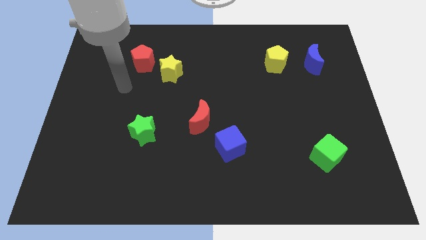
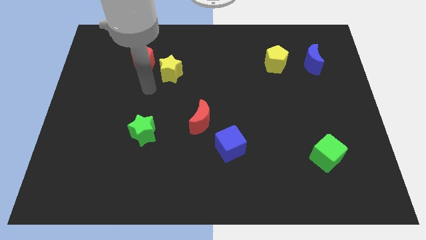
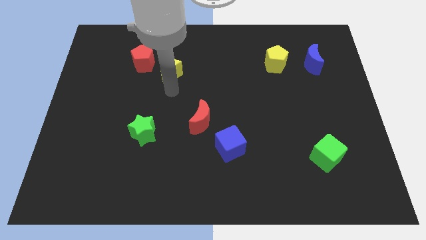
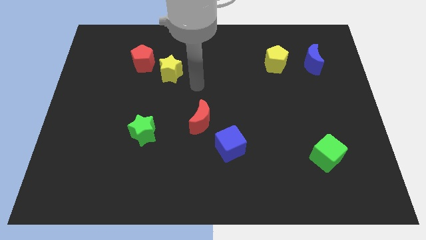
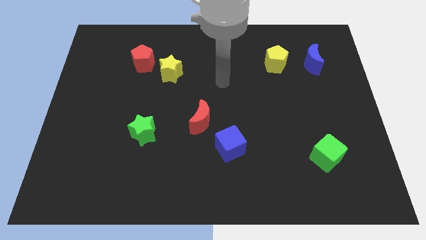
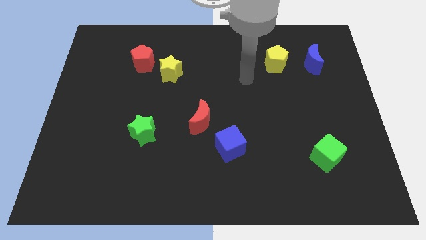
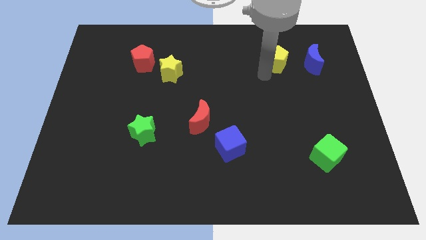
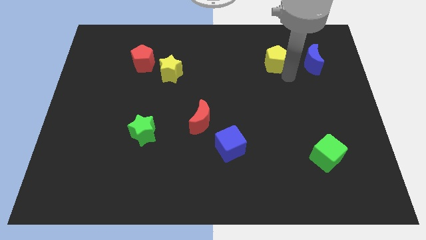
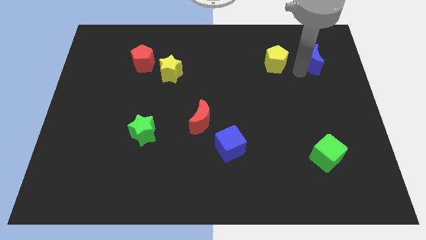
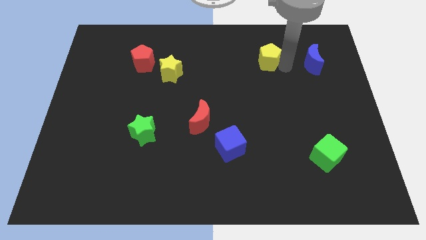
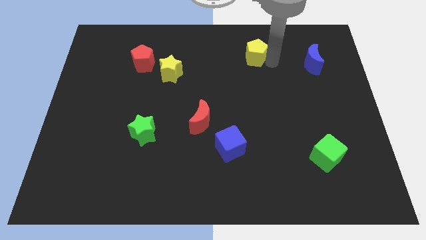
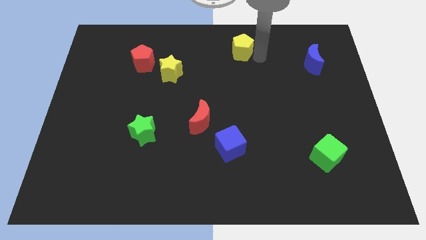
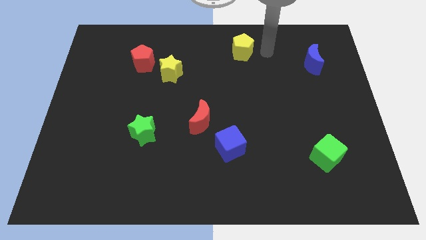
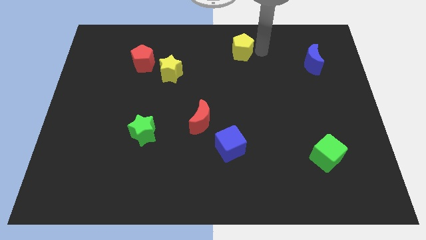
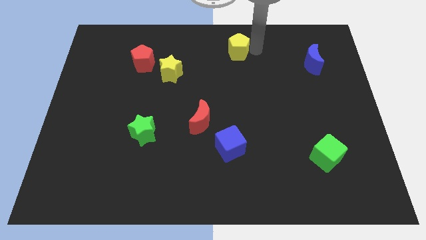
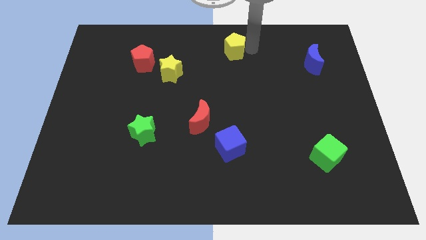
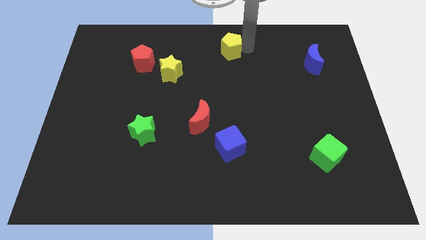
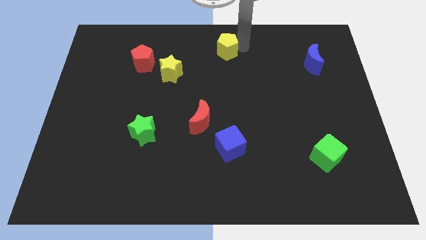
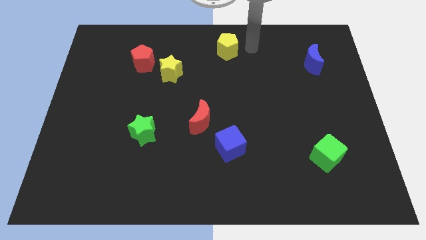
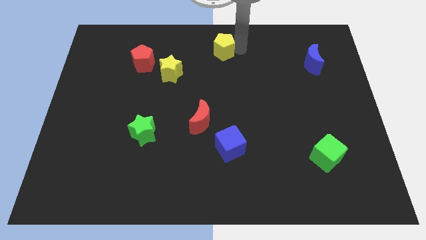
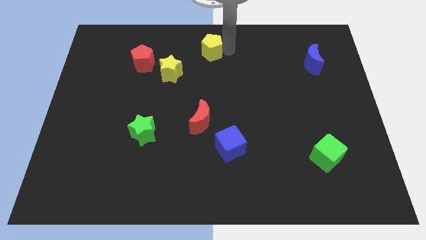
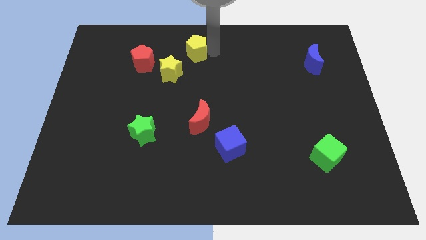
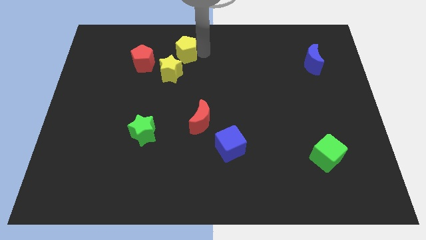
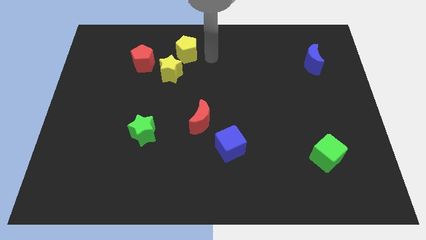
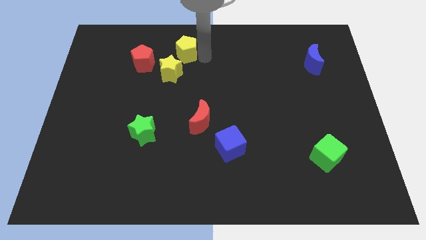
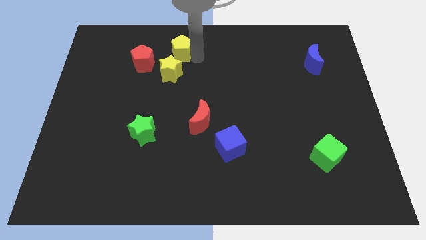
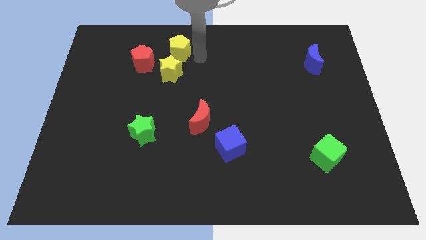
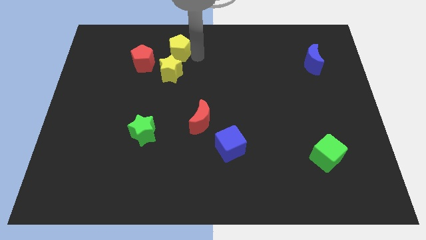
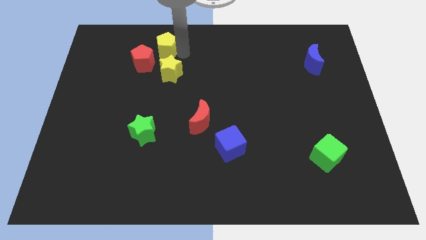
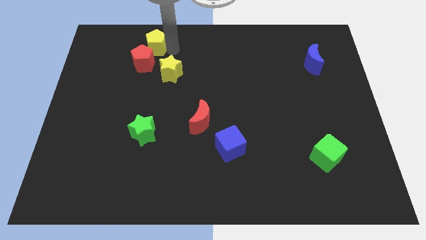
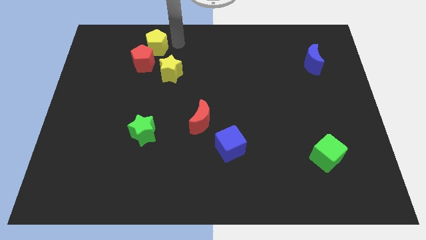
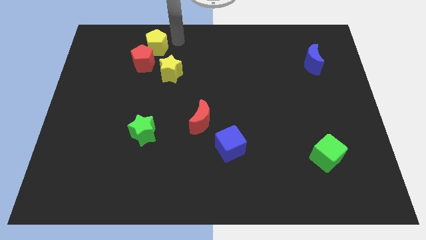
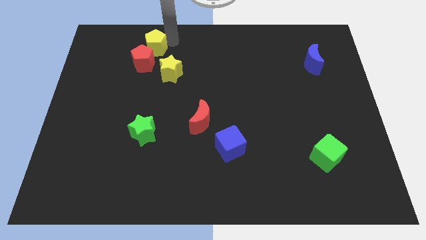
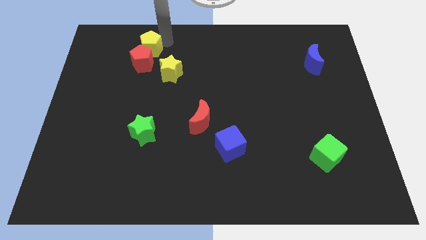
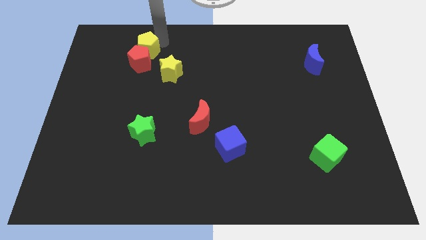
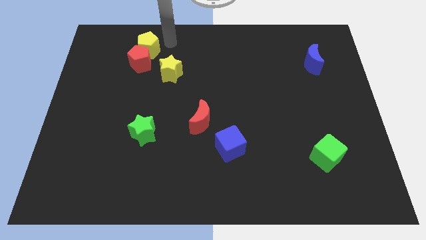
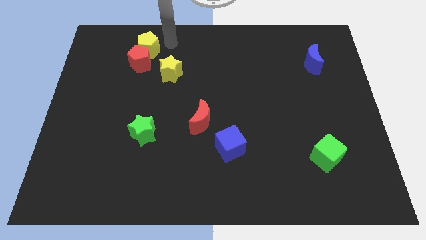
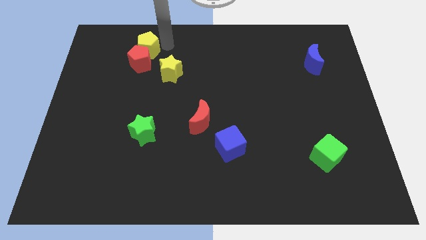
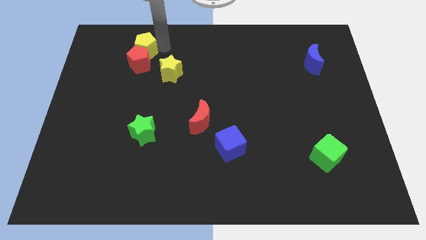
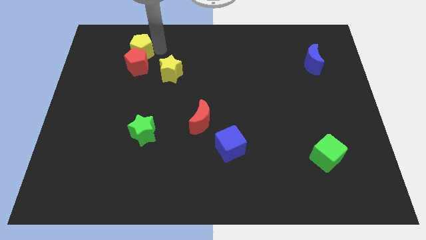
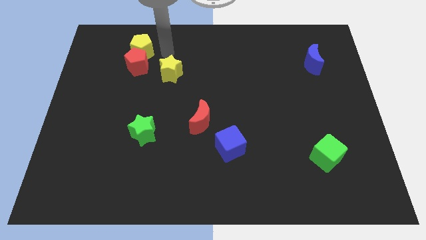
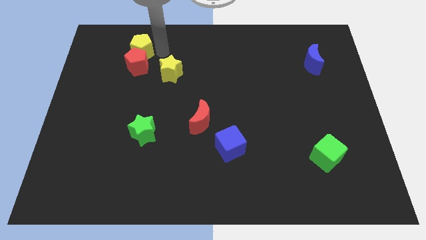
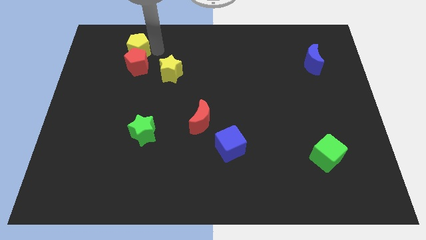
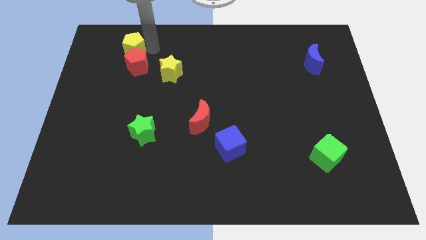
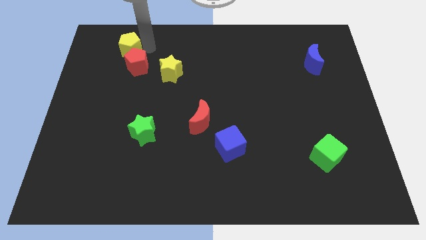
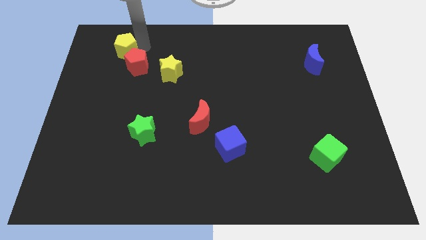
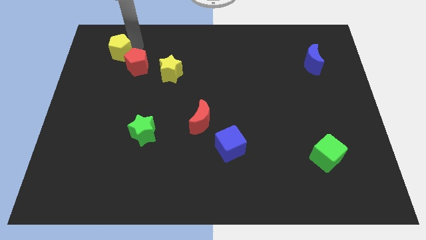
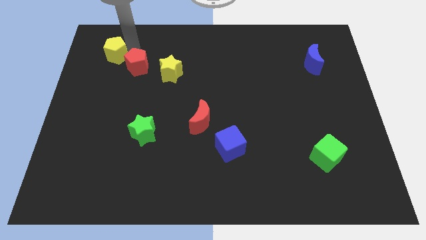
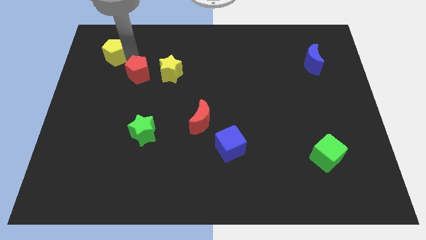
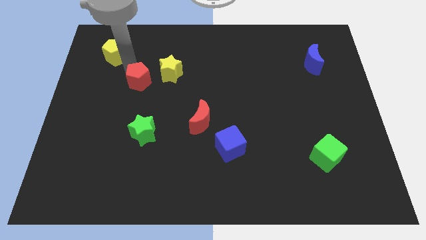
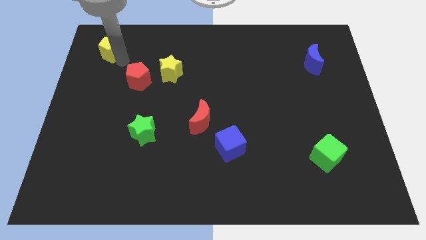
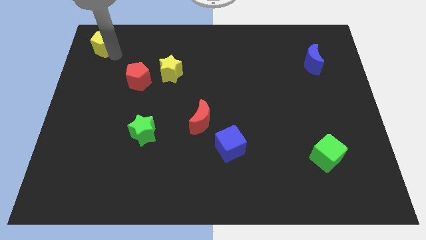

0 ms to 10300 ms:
push the yellow pentagon to the top left

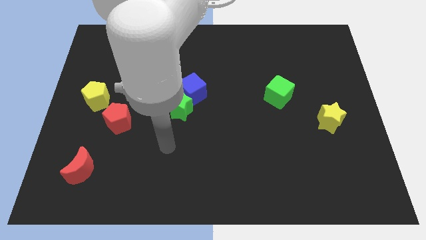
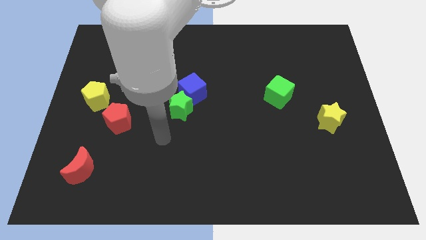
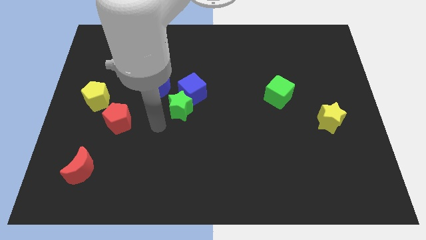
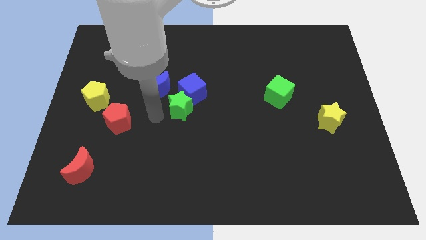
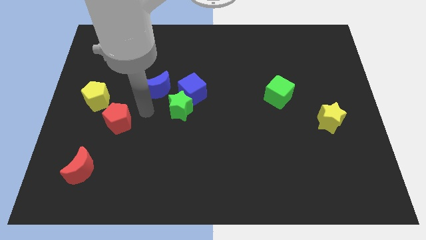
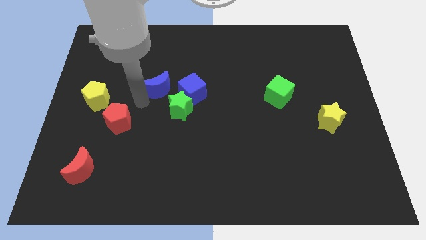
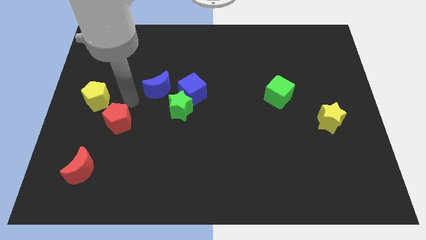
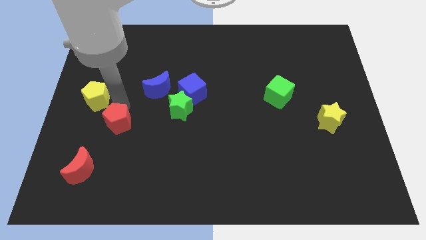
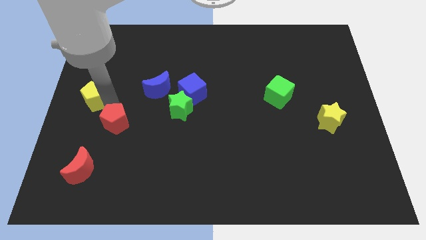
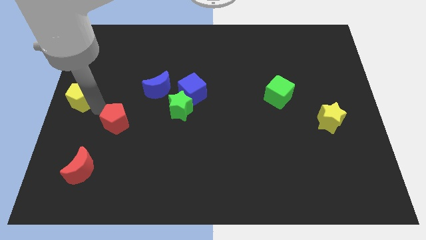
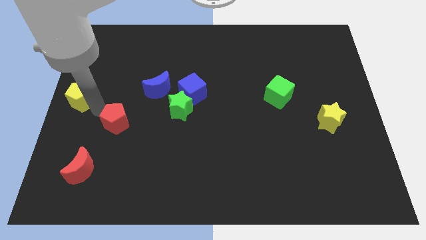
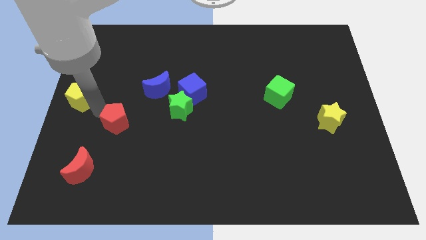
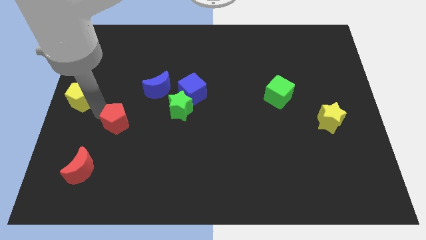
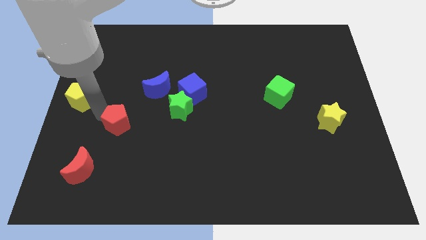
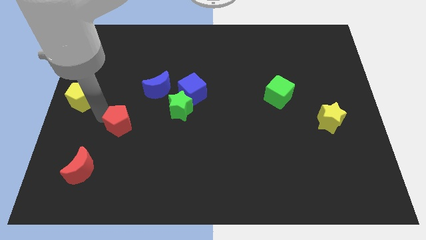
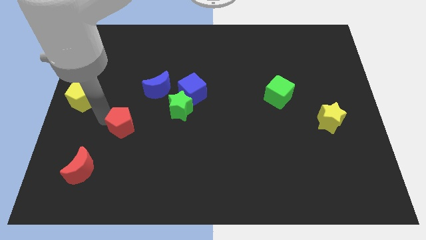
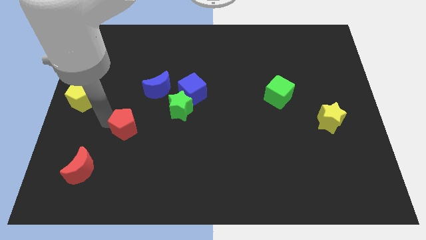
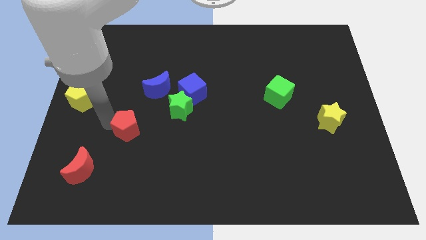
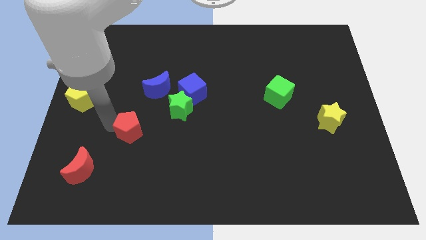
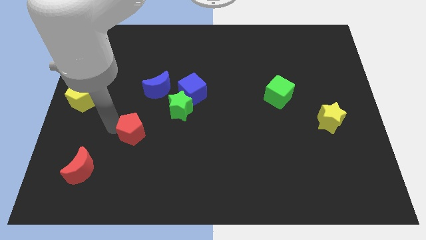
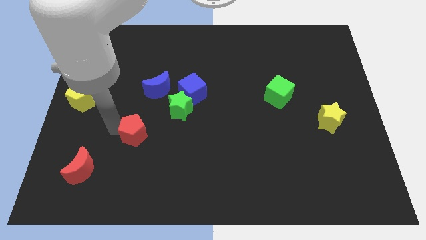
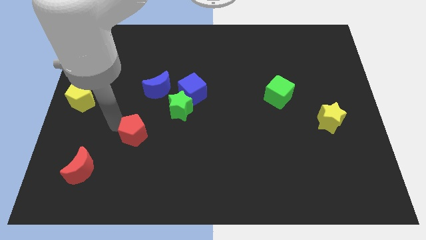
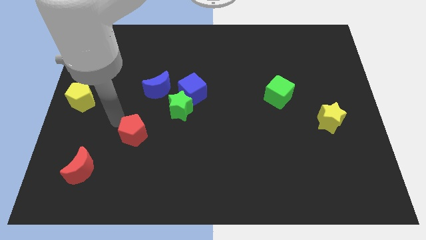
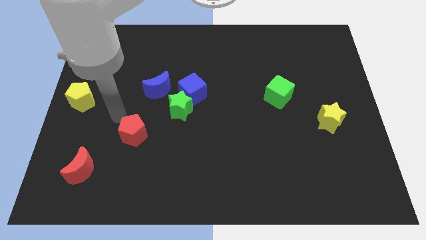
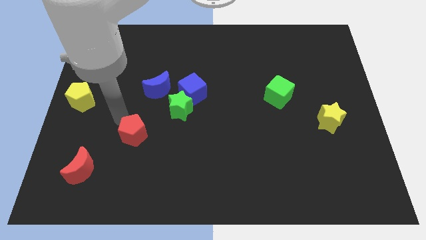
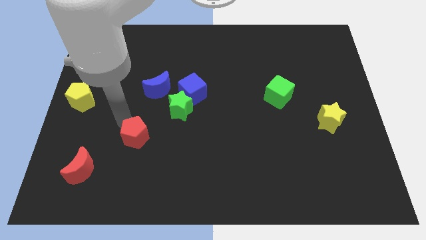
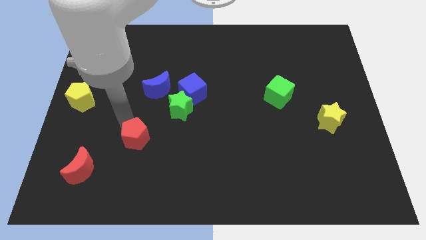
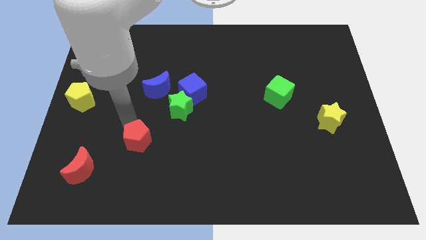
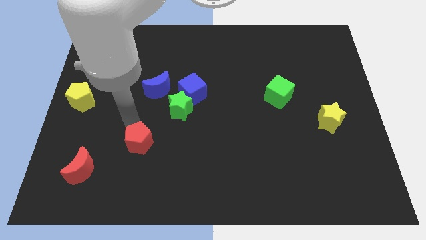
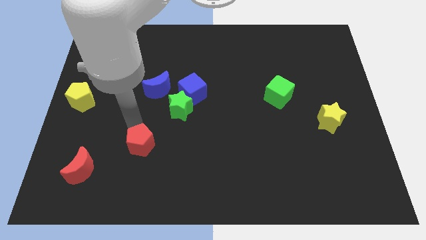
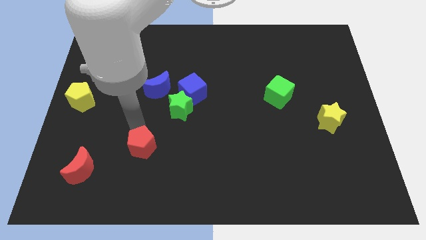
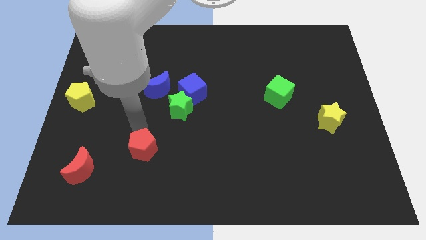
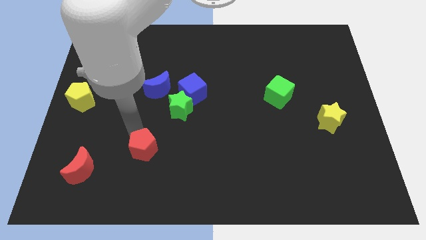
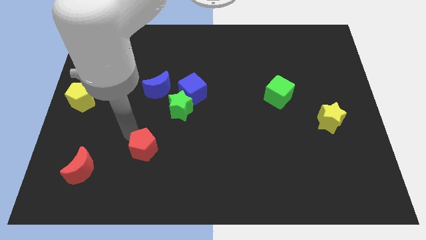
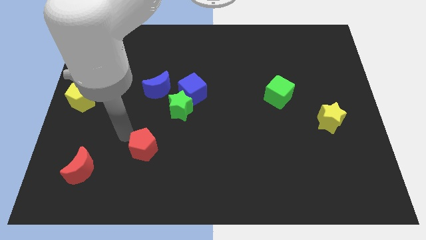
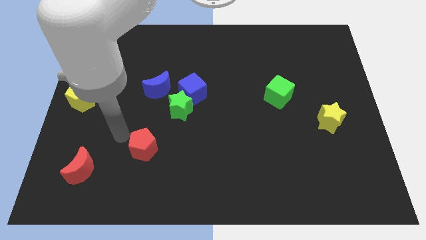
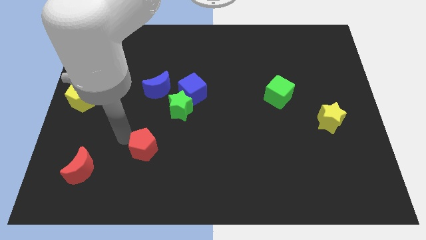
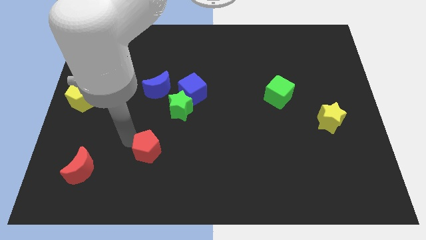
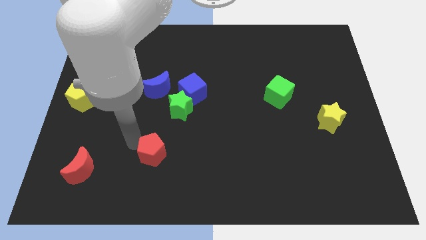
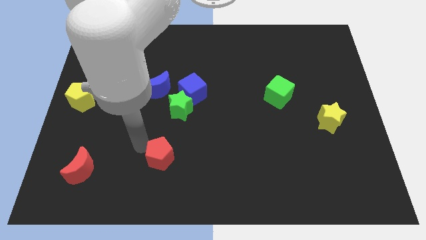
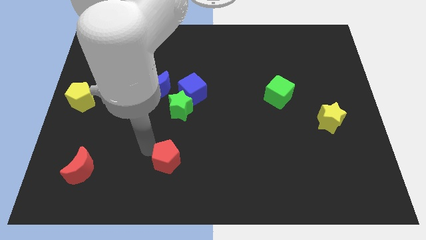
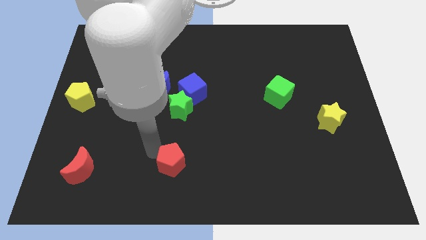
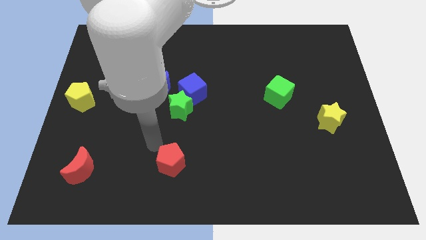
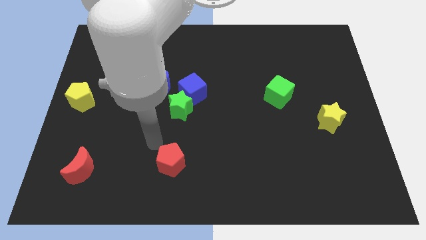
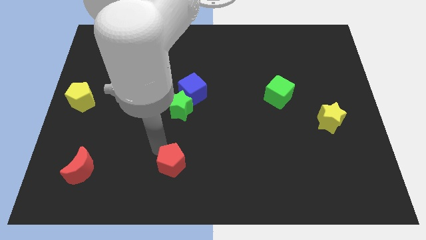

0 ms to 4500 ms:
push the red pentagon to the bottom side
